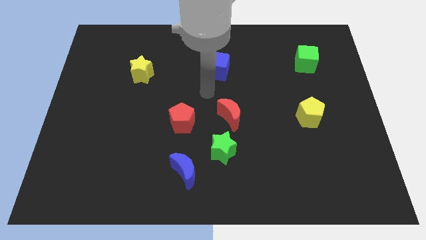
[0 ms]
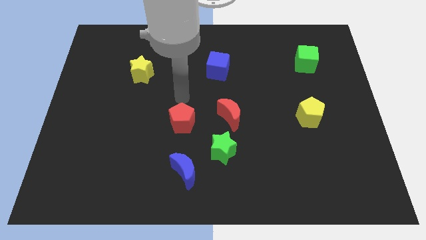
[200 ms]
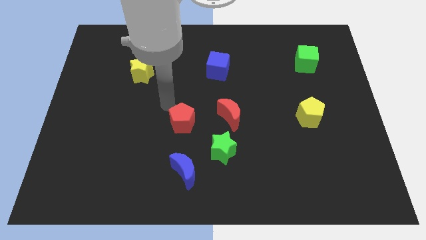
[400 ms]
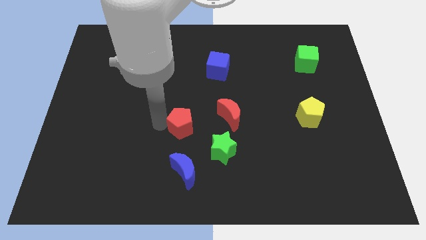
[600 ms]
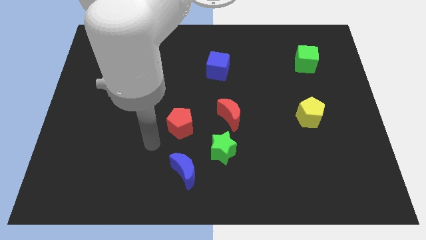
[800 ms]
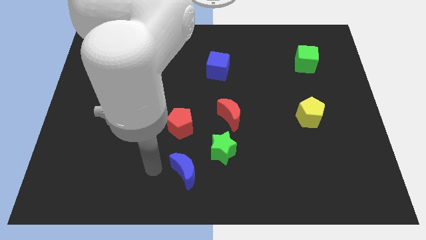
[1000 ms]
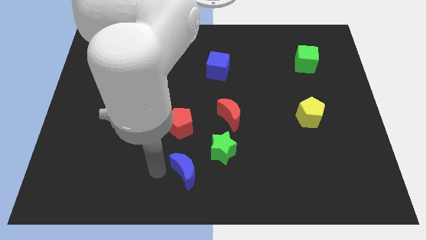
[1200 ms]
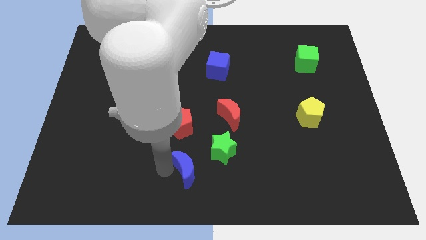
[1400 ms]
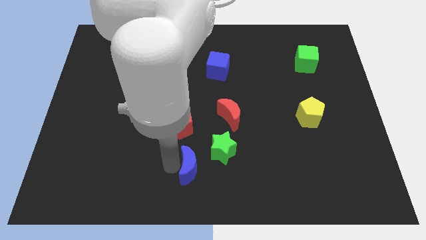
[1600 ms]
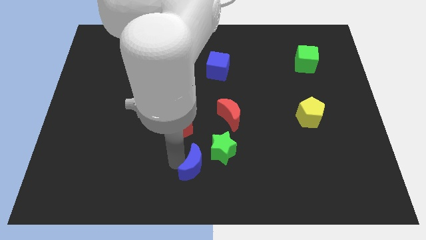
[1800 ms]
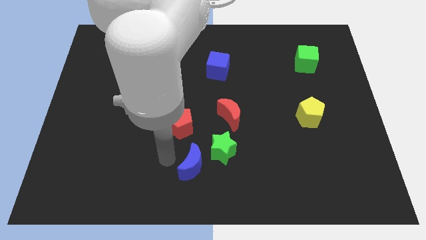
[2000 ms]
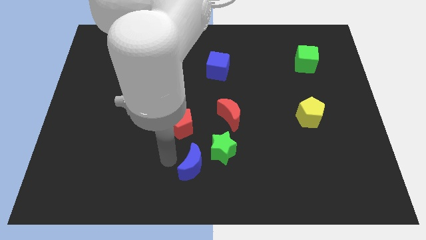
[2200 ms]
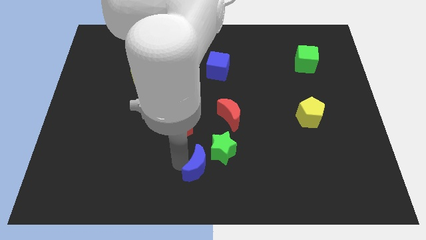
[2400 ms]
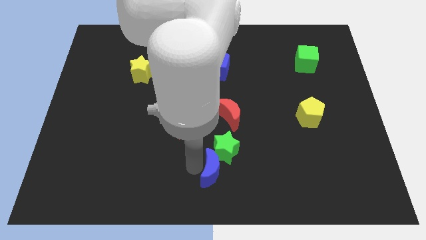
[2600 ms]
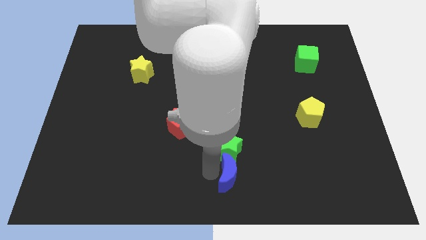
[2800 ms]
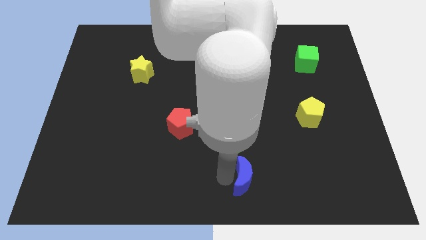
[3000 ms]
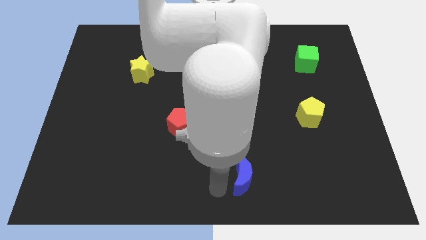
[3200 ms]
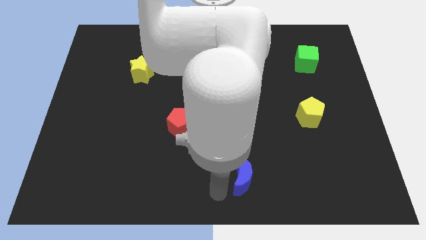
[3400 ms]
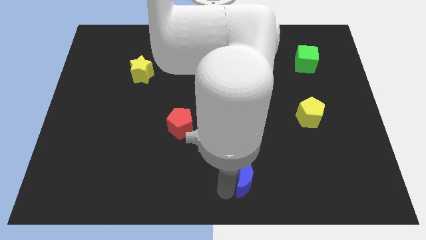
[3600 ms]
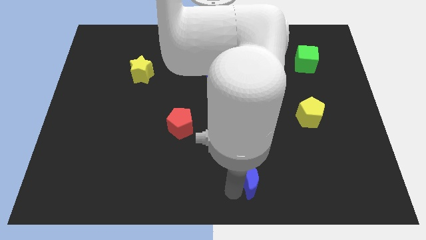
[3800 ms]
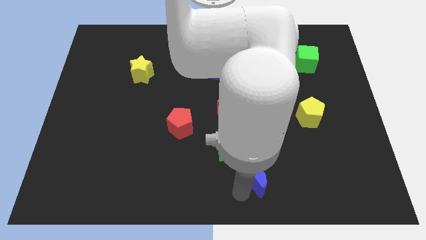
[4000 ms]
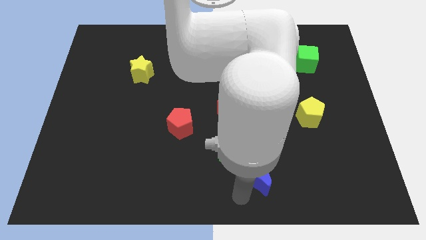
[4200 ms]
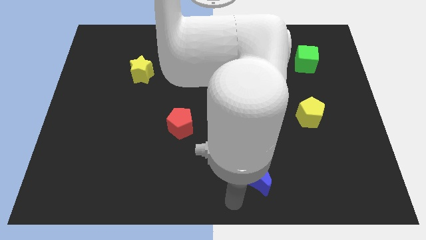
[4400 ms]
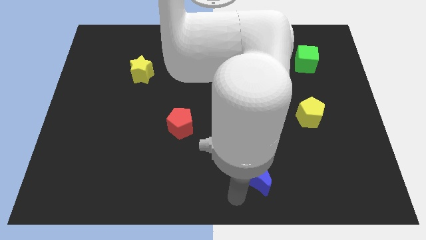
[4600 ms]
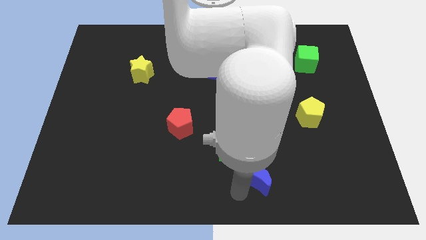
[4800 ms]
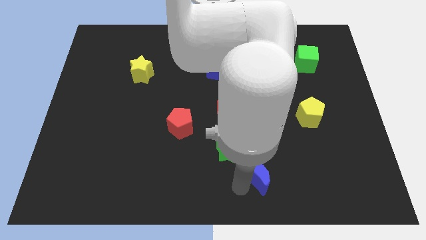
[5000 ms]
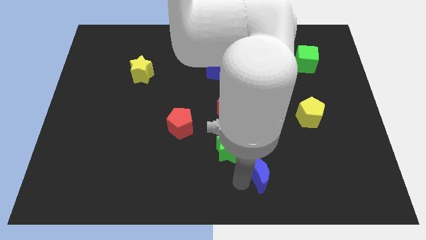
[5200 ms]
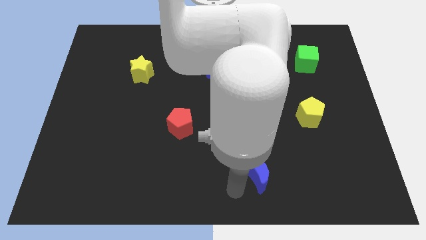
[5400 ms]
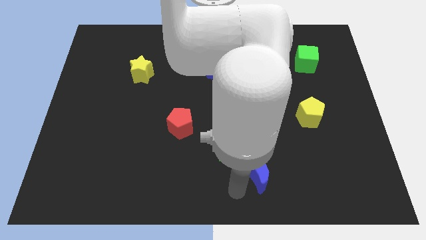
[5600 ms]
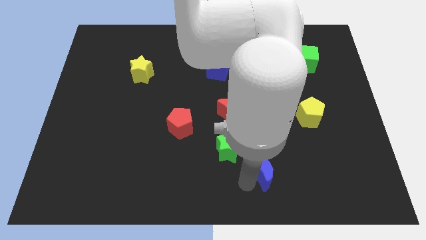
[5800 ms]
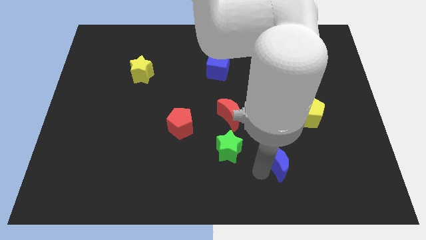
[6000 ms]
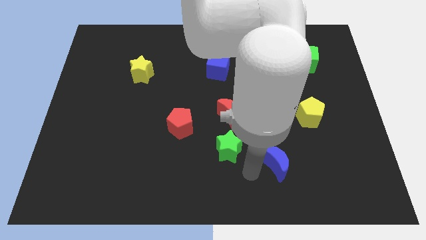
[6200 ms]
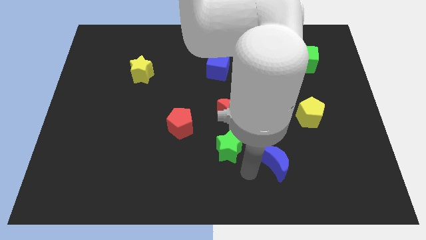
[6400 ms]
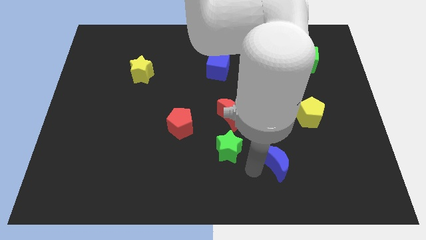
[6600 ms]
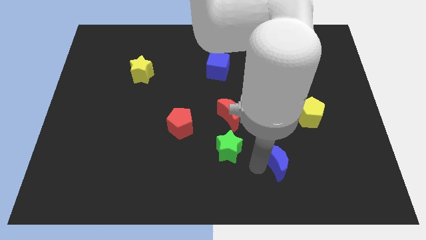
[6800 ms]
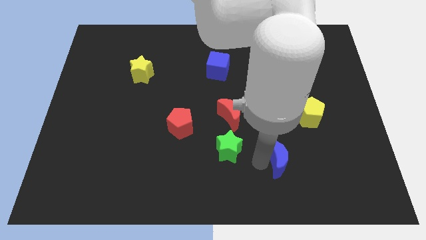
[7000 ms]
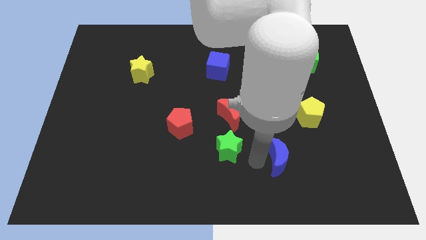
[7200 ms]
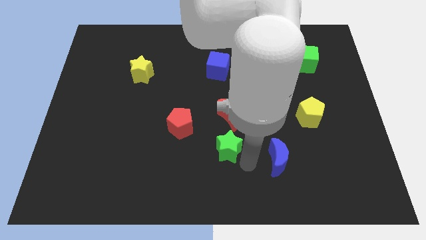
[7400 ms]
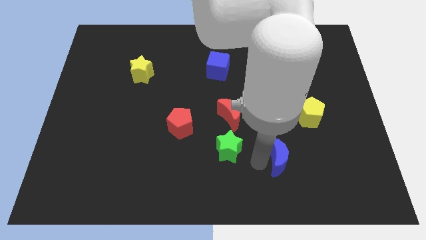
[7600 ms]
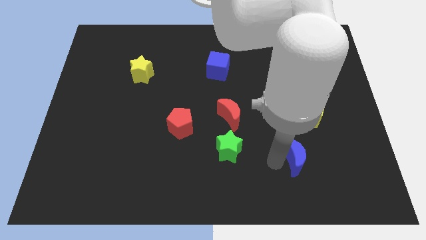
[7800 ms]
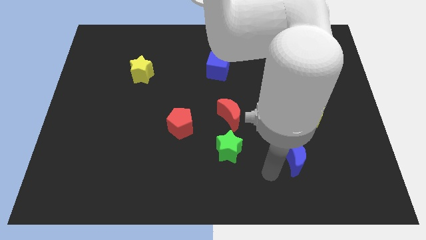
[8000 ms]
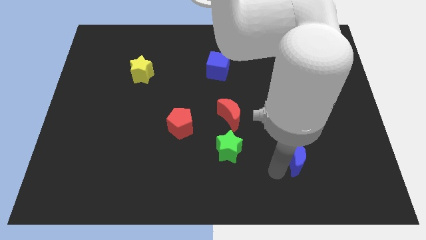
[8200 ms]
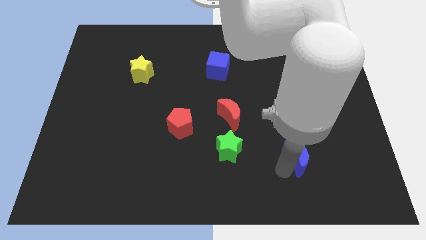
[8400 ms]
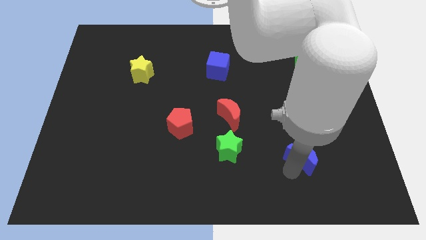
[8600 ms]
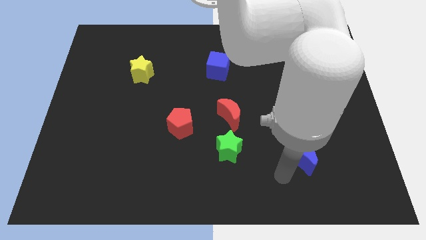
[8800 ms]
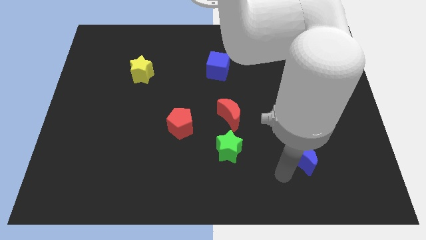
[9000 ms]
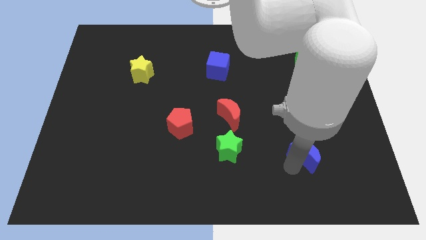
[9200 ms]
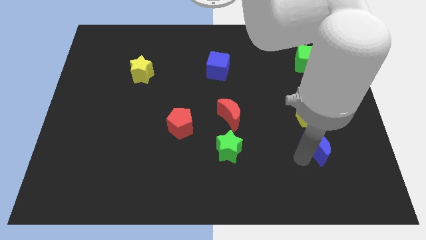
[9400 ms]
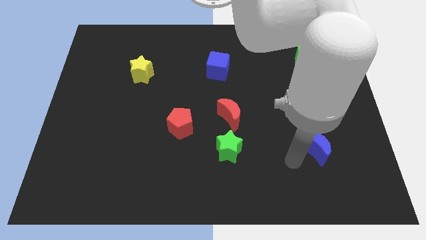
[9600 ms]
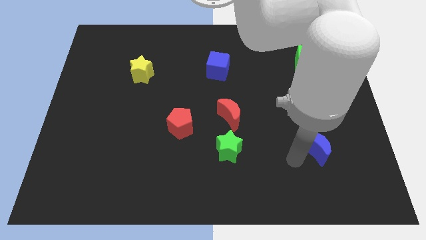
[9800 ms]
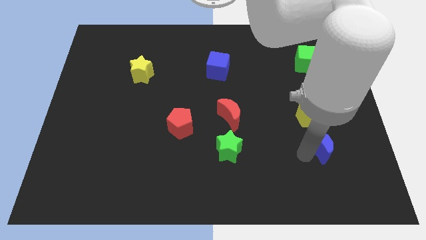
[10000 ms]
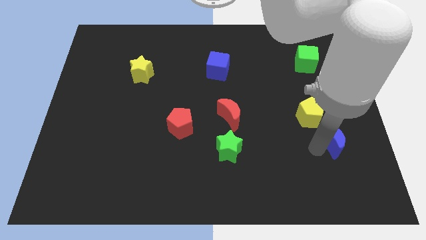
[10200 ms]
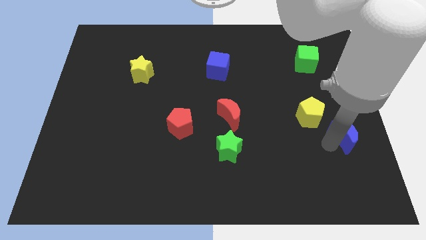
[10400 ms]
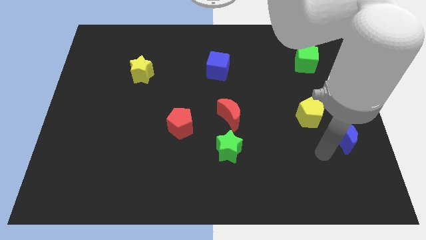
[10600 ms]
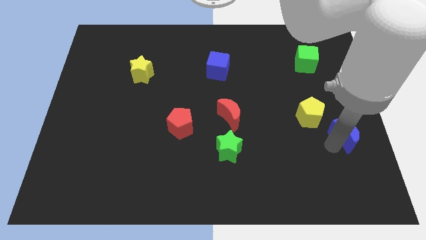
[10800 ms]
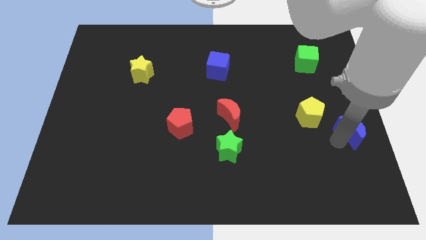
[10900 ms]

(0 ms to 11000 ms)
slide the blue moon to the right side of the board

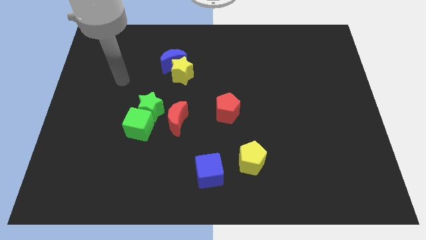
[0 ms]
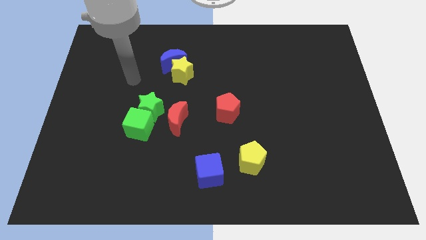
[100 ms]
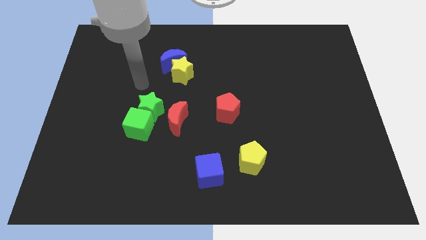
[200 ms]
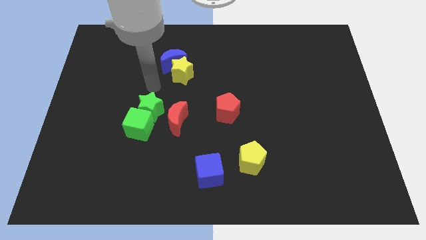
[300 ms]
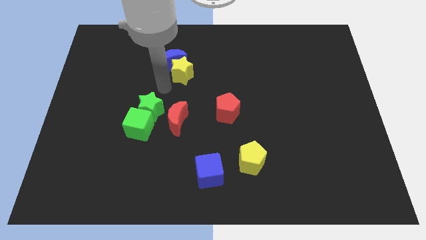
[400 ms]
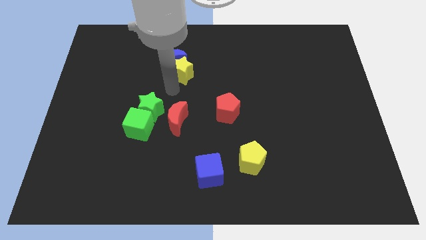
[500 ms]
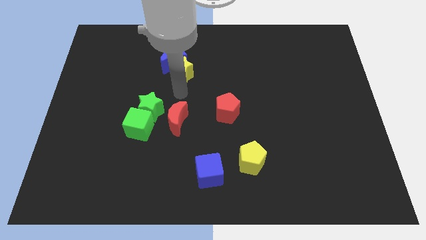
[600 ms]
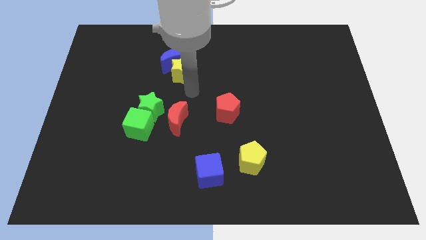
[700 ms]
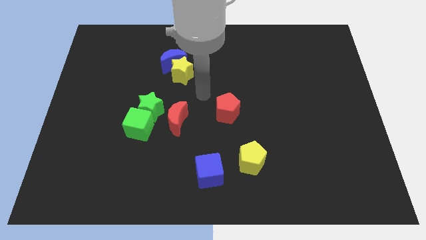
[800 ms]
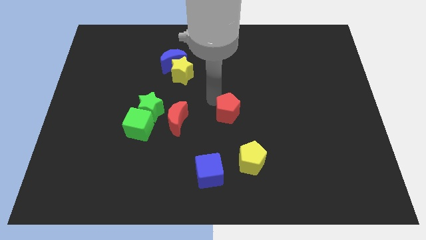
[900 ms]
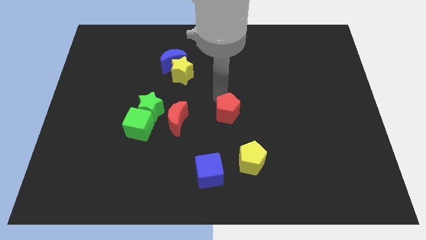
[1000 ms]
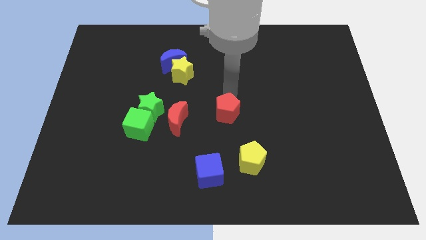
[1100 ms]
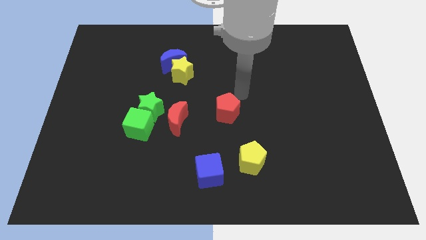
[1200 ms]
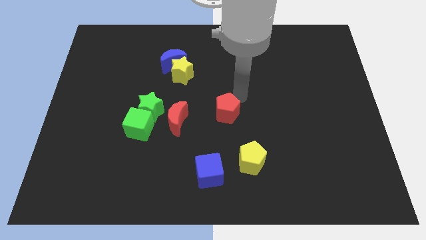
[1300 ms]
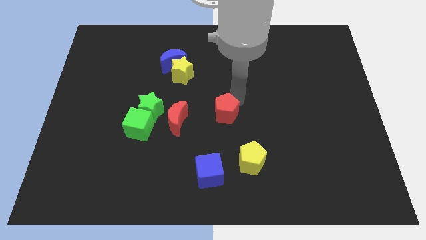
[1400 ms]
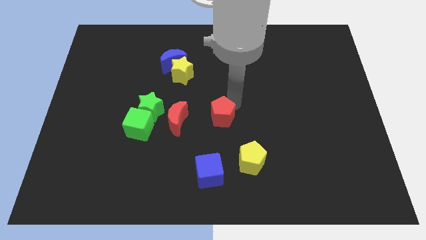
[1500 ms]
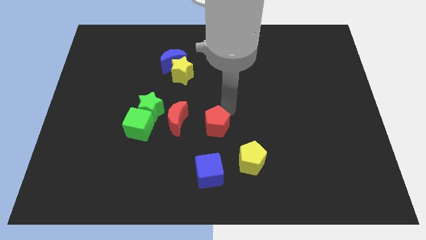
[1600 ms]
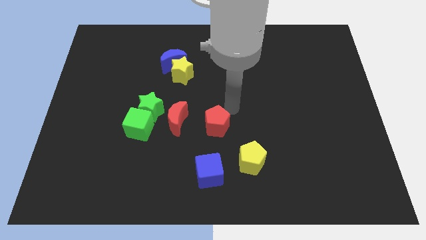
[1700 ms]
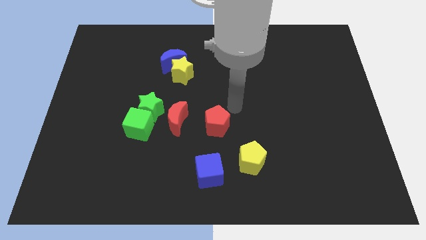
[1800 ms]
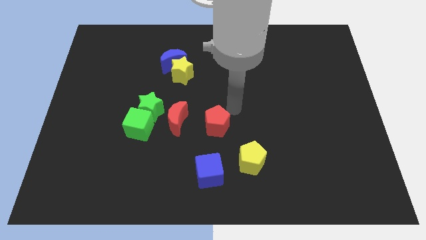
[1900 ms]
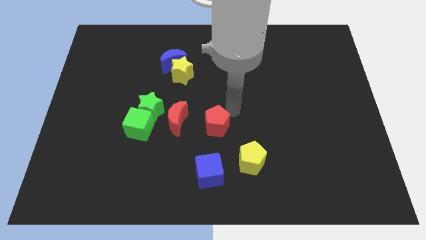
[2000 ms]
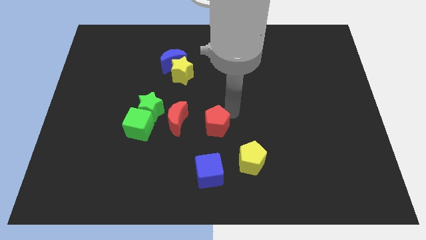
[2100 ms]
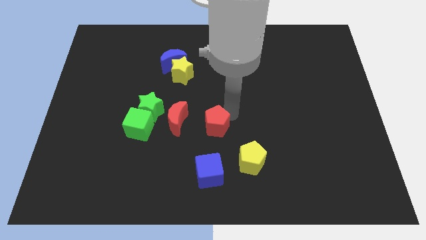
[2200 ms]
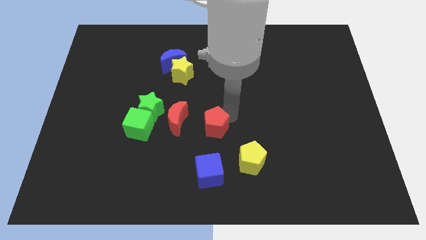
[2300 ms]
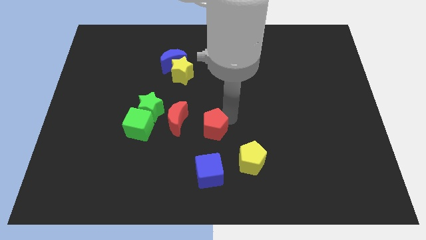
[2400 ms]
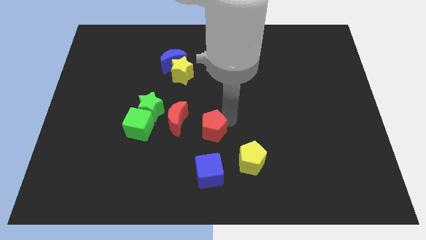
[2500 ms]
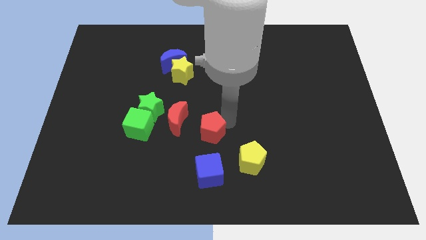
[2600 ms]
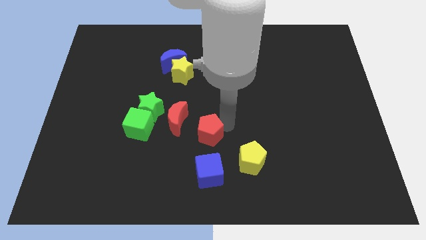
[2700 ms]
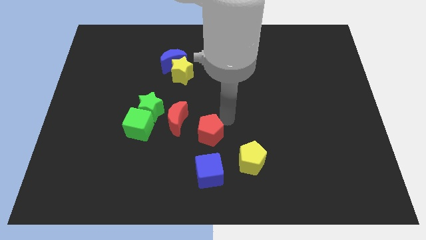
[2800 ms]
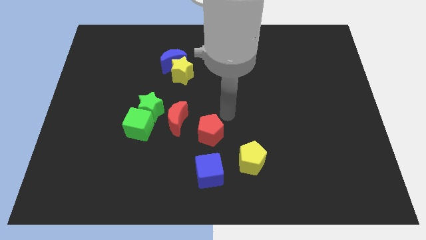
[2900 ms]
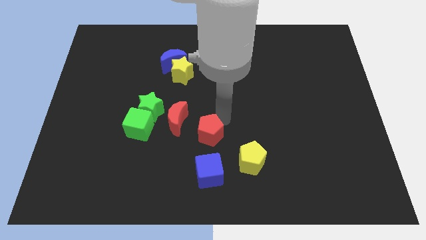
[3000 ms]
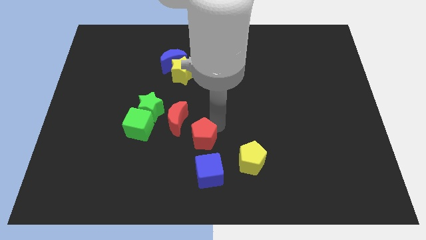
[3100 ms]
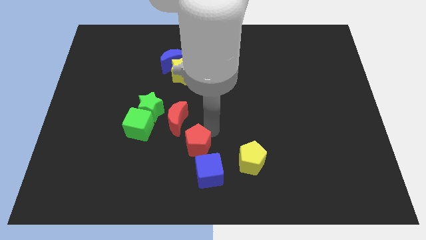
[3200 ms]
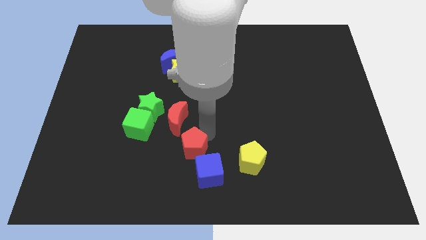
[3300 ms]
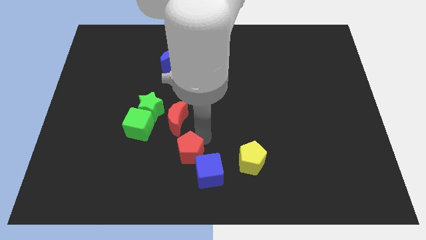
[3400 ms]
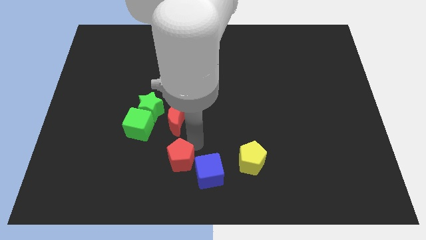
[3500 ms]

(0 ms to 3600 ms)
put the red pentagon to the bottom side
